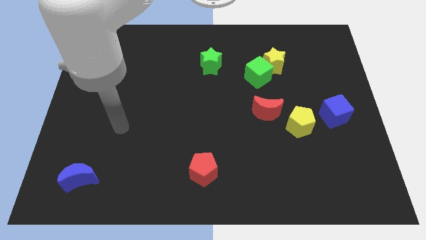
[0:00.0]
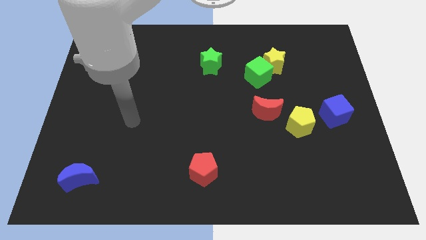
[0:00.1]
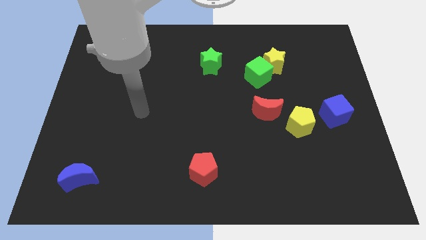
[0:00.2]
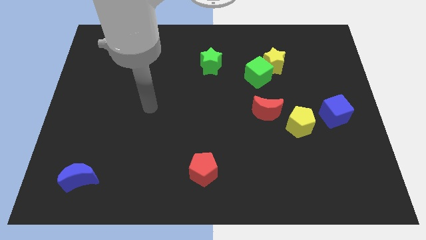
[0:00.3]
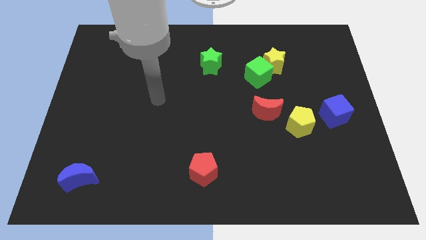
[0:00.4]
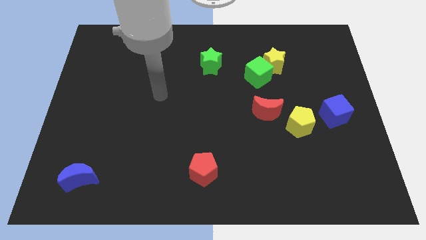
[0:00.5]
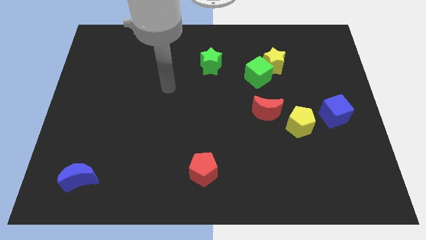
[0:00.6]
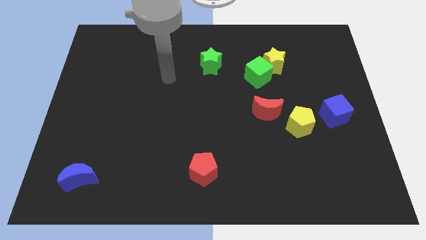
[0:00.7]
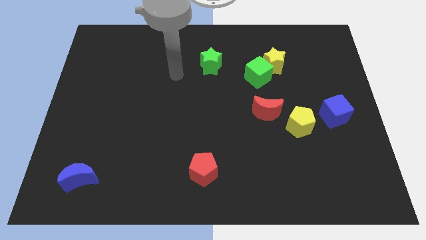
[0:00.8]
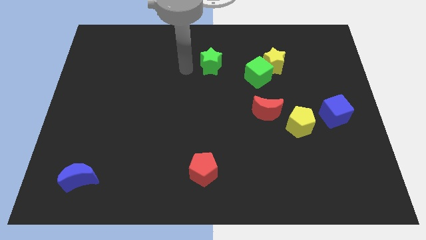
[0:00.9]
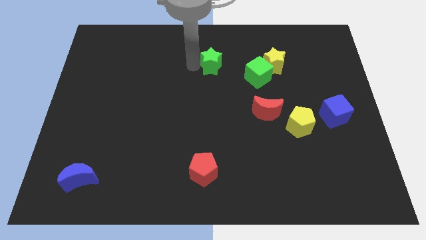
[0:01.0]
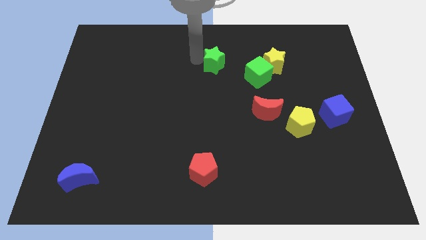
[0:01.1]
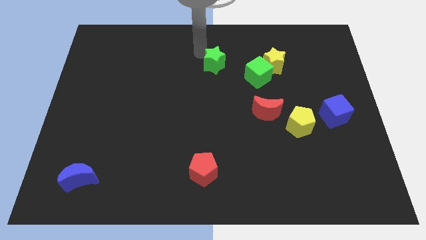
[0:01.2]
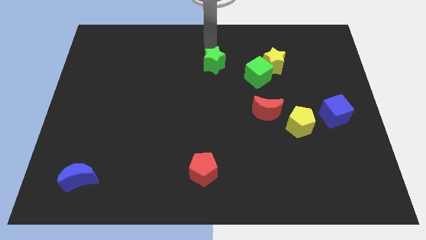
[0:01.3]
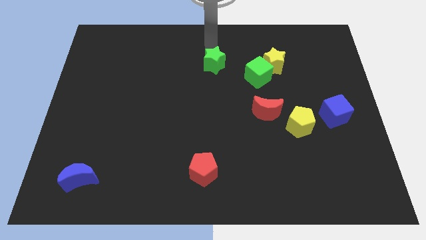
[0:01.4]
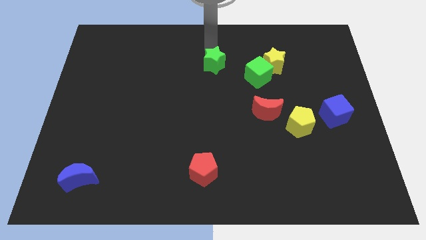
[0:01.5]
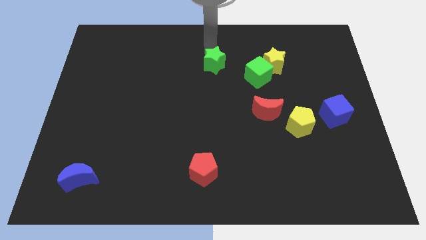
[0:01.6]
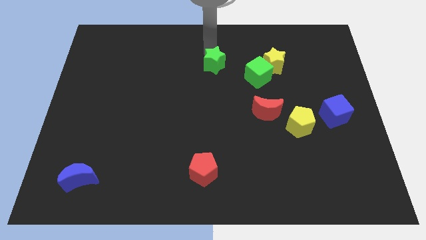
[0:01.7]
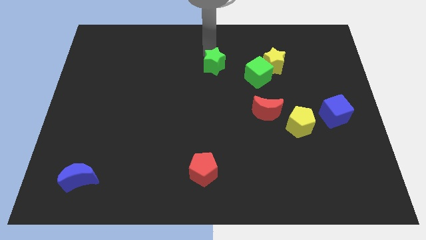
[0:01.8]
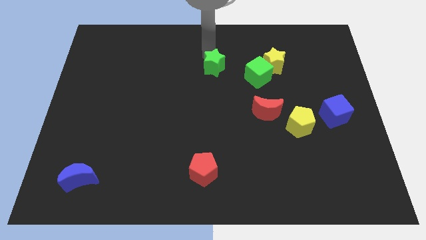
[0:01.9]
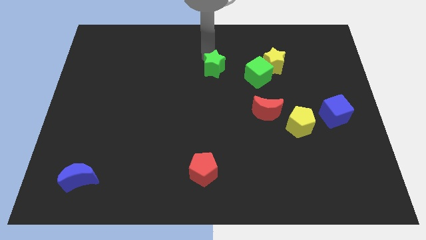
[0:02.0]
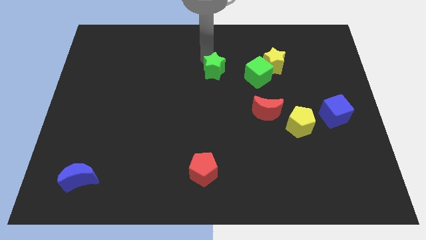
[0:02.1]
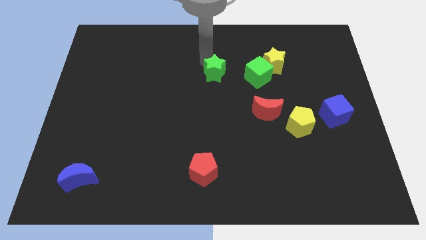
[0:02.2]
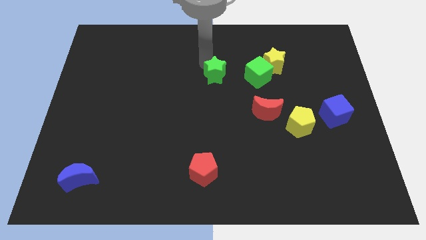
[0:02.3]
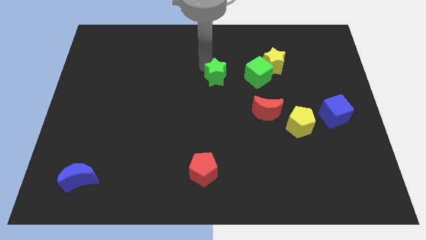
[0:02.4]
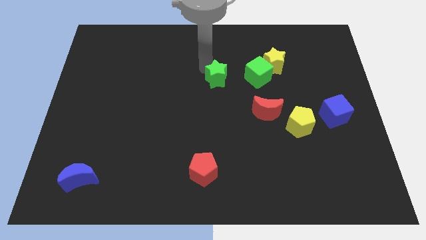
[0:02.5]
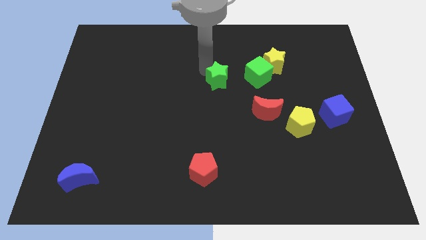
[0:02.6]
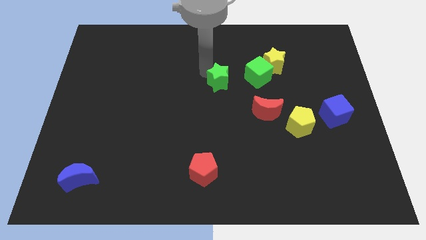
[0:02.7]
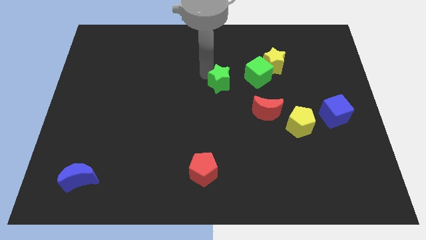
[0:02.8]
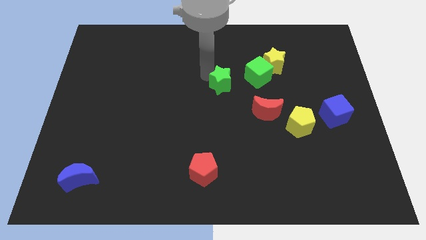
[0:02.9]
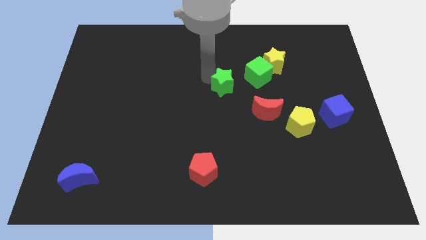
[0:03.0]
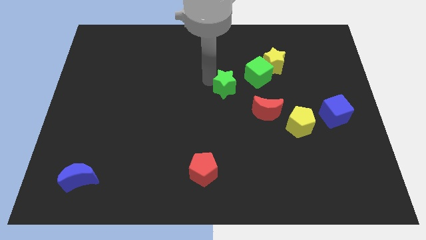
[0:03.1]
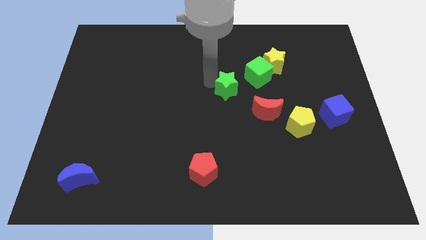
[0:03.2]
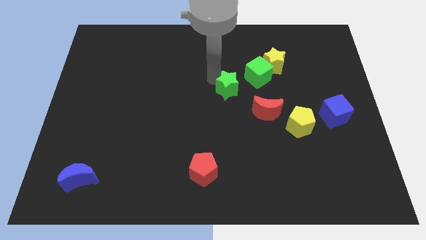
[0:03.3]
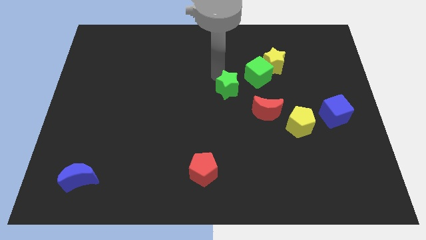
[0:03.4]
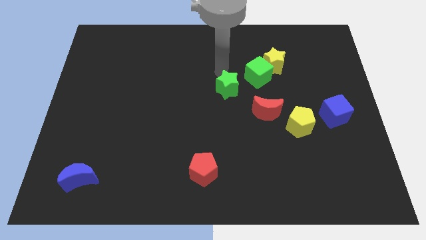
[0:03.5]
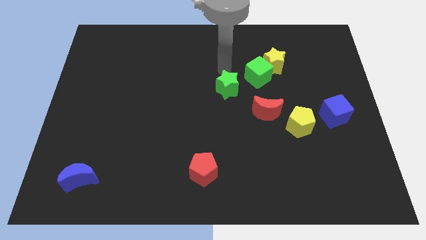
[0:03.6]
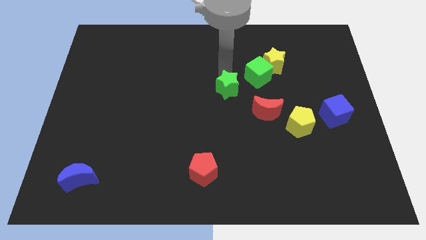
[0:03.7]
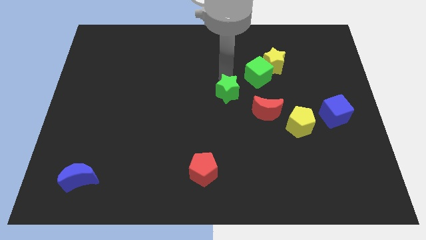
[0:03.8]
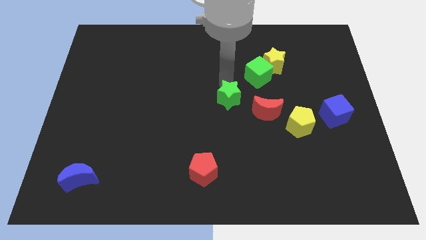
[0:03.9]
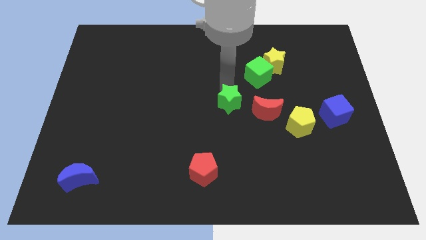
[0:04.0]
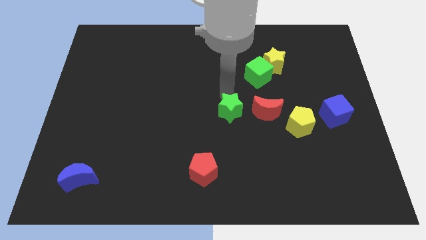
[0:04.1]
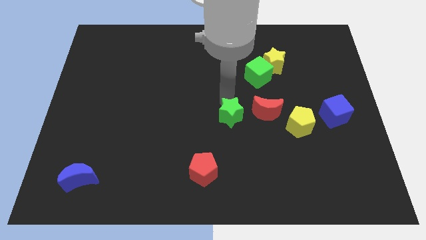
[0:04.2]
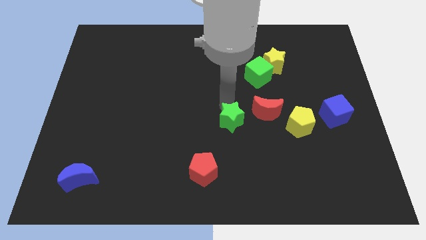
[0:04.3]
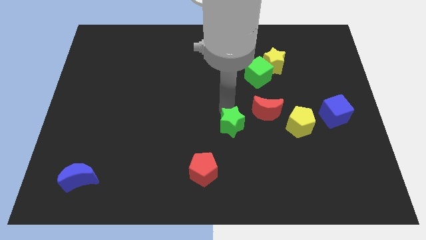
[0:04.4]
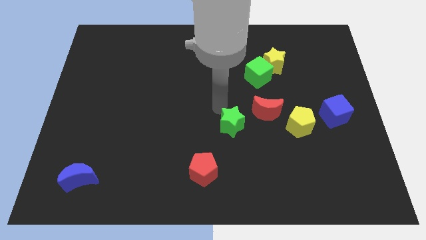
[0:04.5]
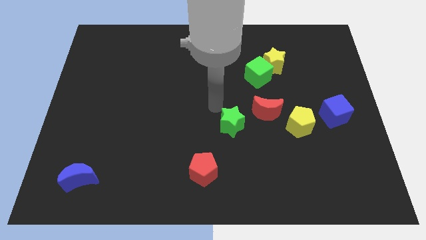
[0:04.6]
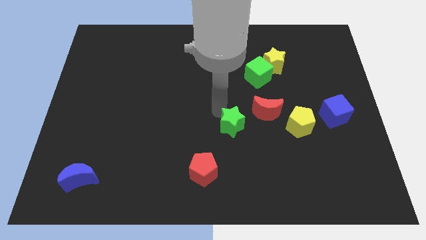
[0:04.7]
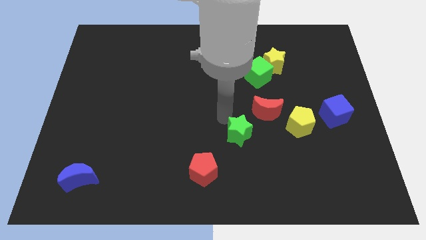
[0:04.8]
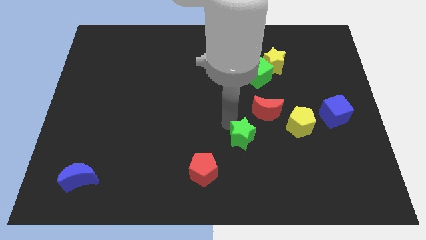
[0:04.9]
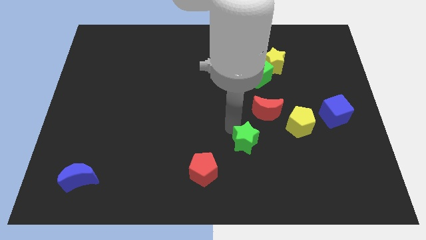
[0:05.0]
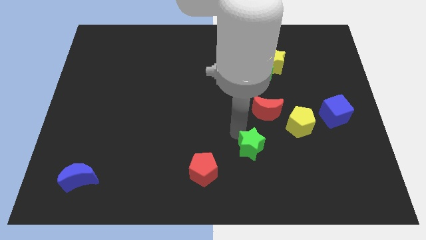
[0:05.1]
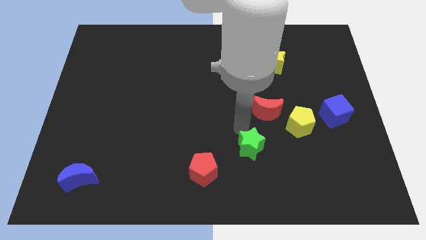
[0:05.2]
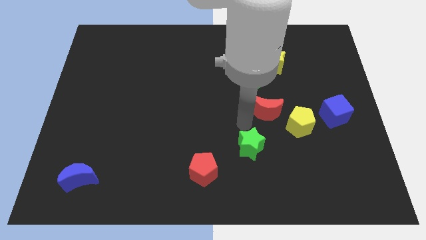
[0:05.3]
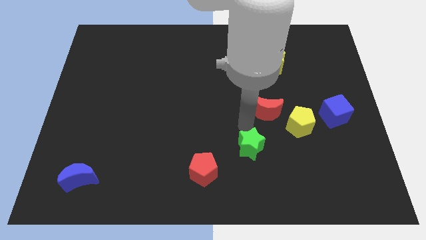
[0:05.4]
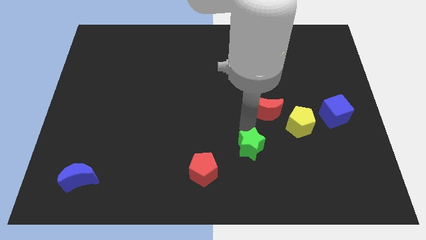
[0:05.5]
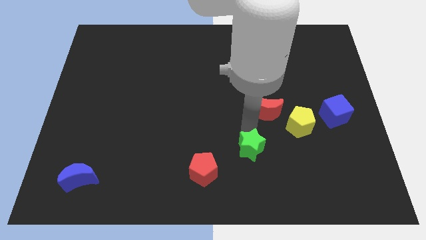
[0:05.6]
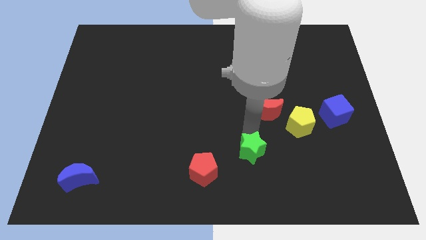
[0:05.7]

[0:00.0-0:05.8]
move the green star right of the red pentagon

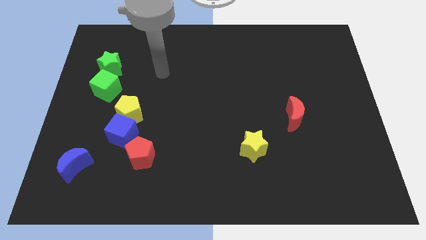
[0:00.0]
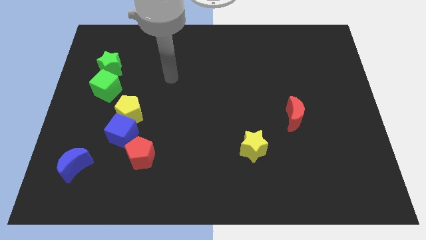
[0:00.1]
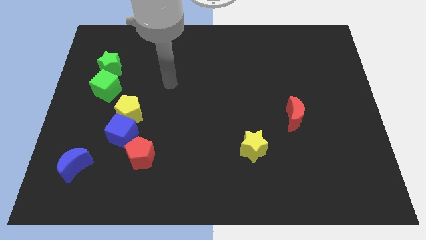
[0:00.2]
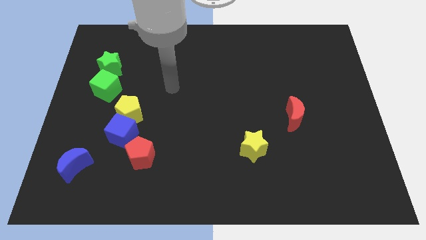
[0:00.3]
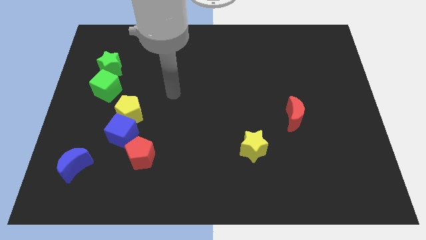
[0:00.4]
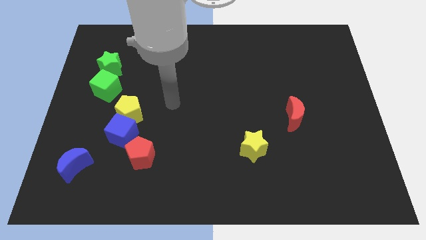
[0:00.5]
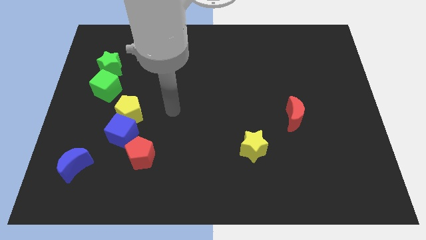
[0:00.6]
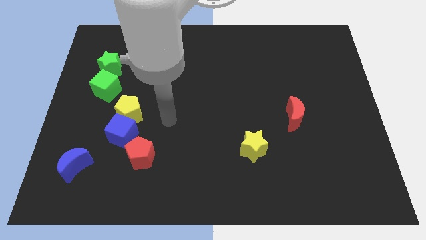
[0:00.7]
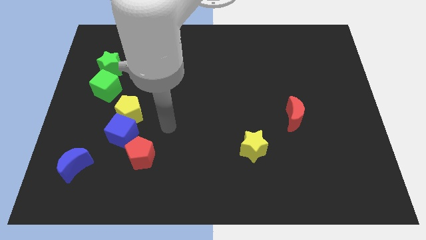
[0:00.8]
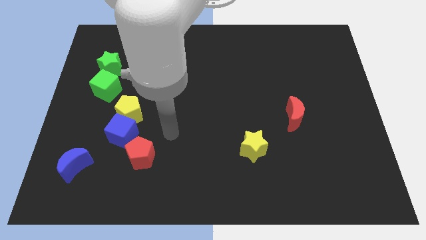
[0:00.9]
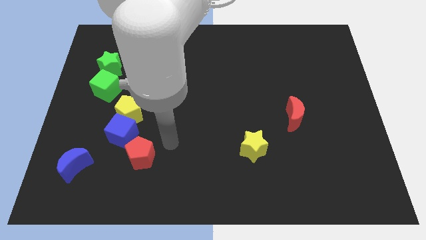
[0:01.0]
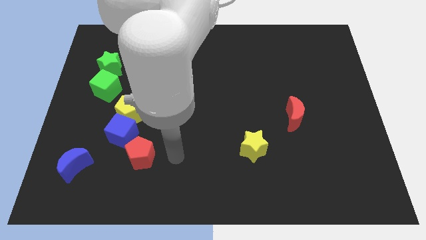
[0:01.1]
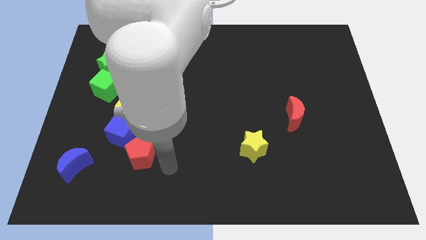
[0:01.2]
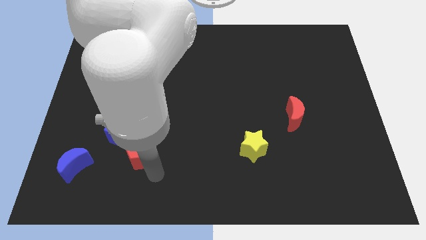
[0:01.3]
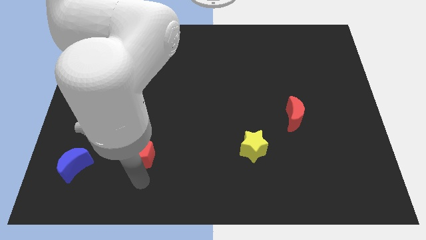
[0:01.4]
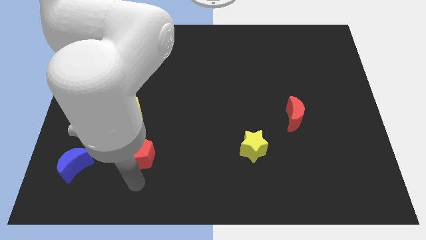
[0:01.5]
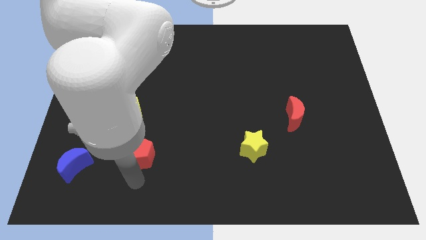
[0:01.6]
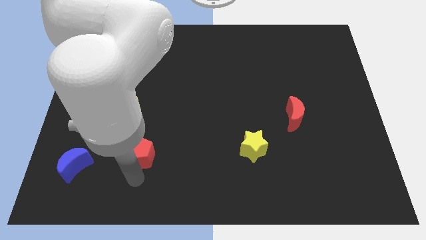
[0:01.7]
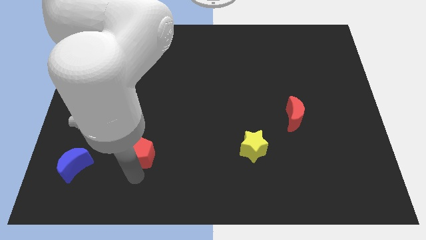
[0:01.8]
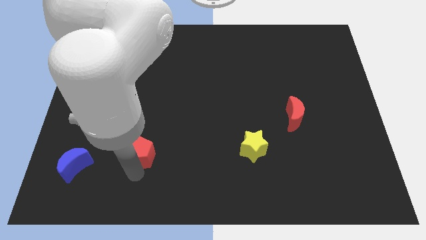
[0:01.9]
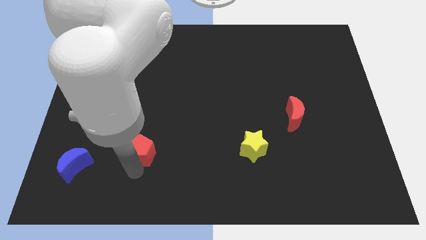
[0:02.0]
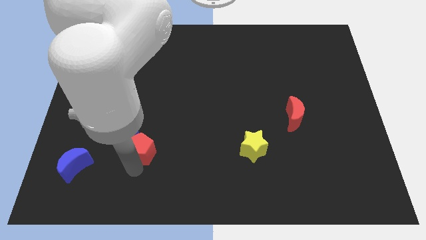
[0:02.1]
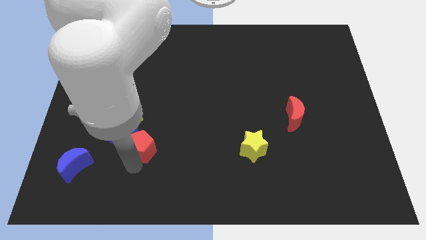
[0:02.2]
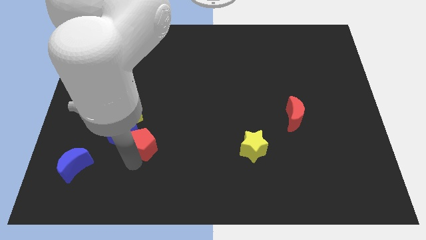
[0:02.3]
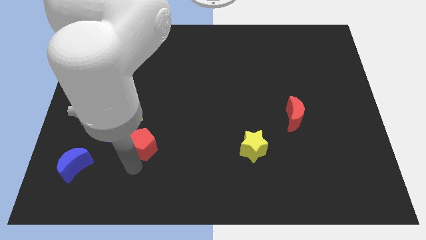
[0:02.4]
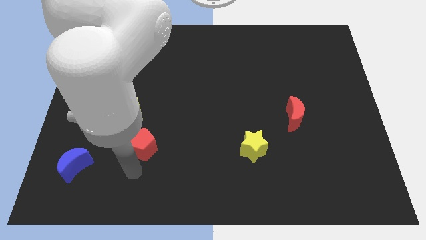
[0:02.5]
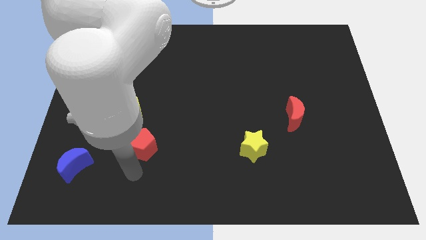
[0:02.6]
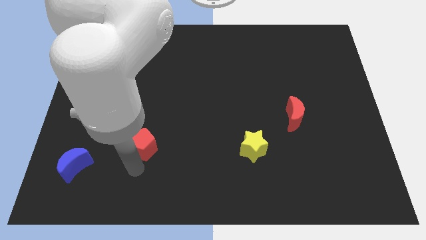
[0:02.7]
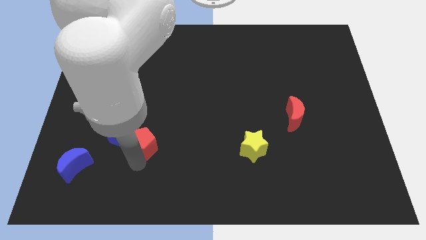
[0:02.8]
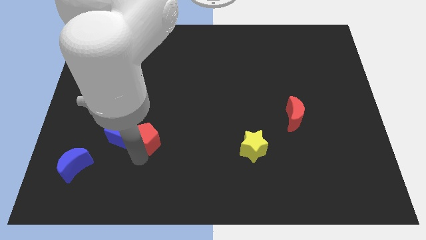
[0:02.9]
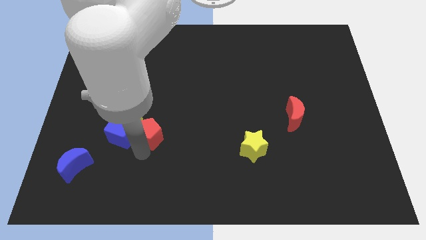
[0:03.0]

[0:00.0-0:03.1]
put the red pentagon diagonally up and to the right of the blue cube
